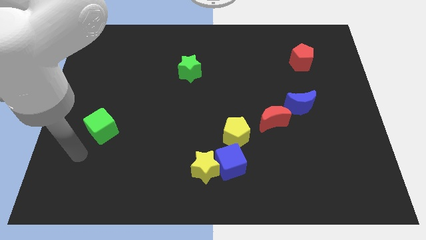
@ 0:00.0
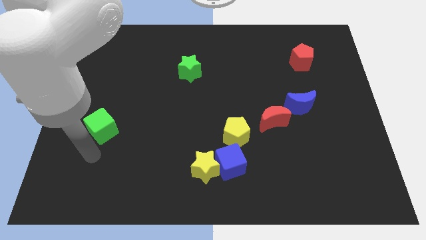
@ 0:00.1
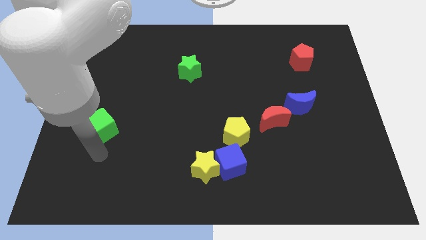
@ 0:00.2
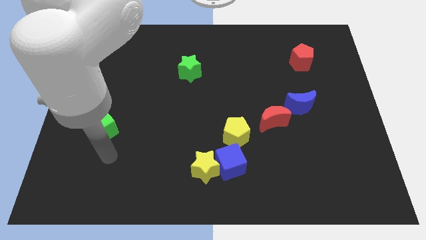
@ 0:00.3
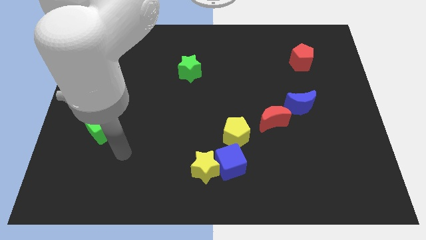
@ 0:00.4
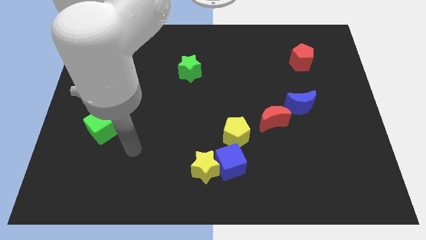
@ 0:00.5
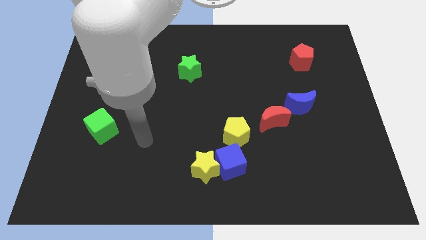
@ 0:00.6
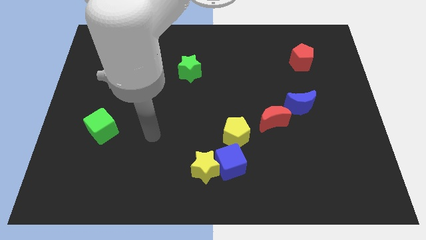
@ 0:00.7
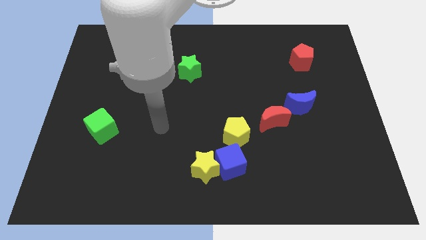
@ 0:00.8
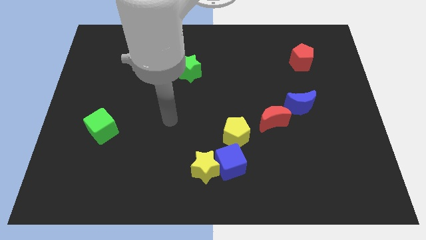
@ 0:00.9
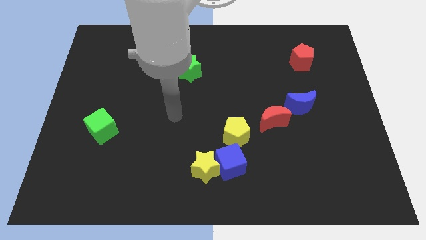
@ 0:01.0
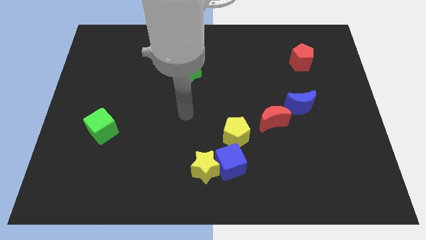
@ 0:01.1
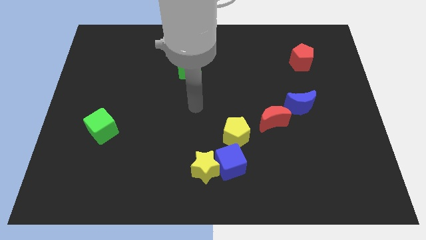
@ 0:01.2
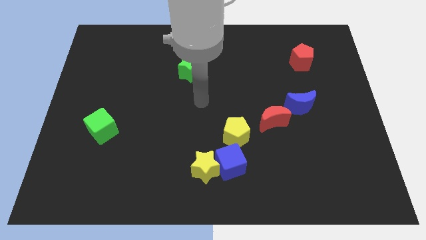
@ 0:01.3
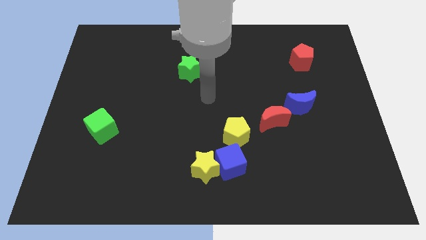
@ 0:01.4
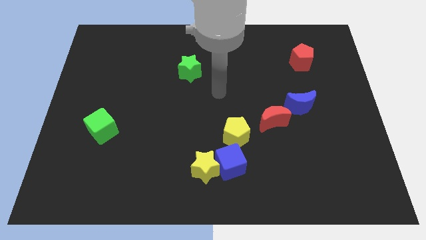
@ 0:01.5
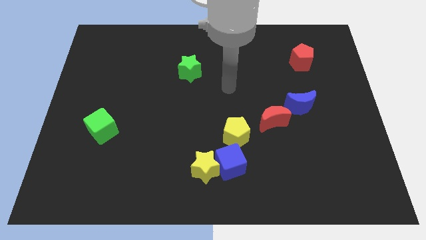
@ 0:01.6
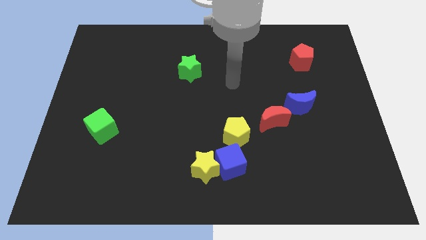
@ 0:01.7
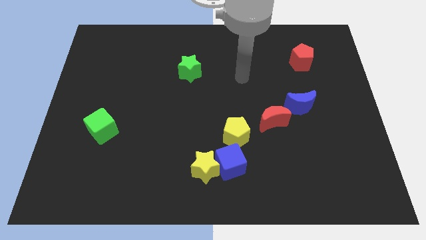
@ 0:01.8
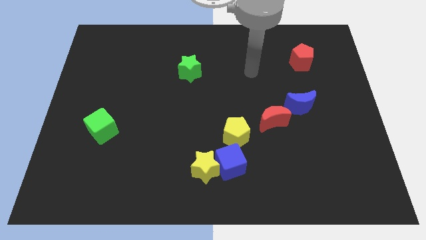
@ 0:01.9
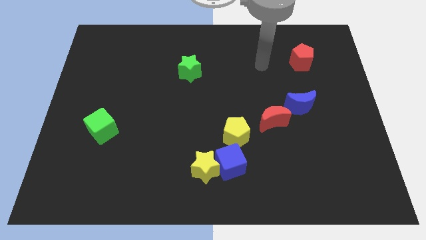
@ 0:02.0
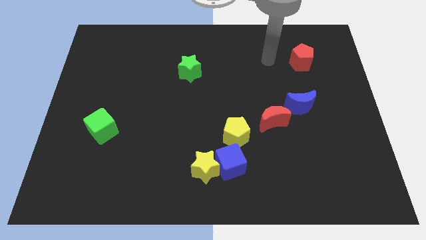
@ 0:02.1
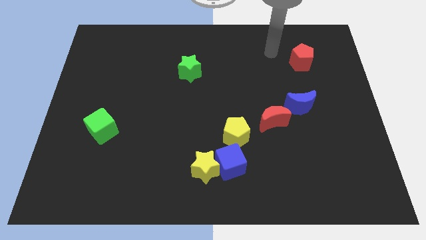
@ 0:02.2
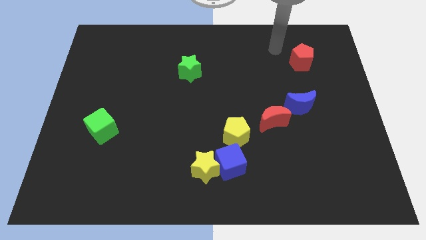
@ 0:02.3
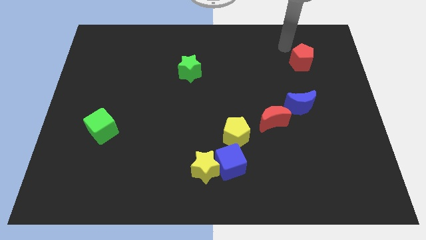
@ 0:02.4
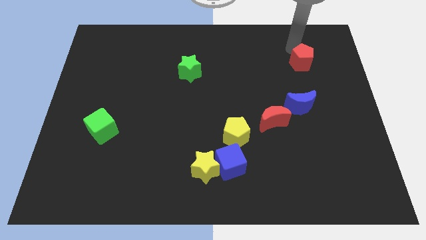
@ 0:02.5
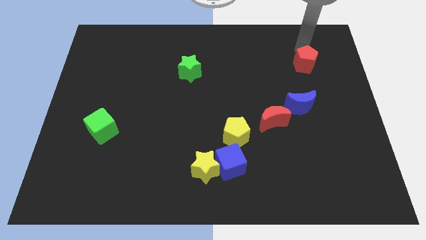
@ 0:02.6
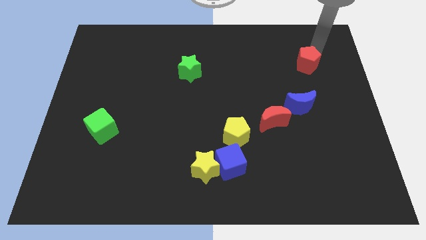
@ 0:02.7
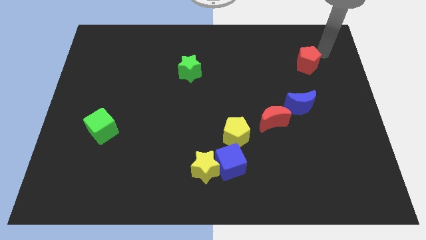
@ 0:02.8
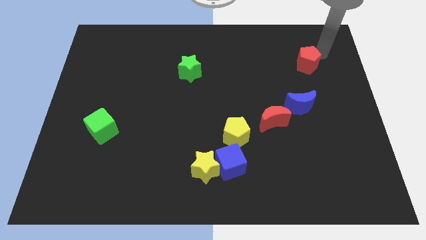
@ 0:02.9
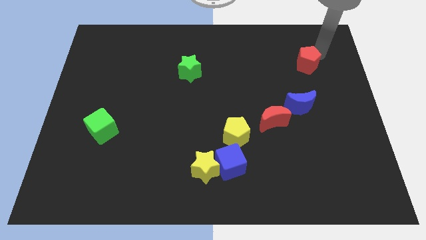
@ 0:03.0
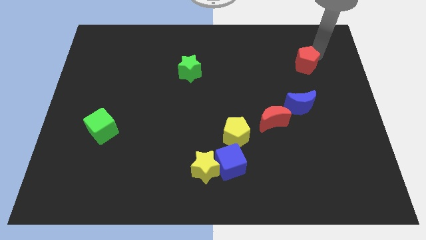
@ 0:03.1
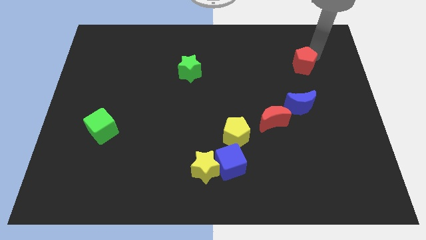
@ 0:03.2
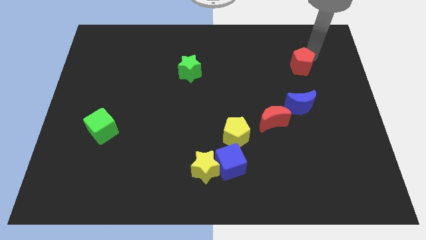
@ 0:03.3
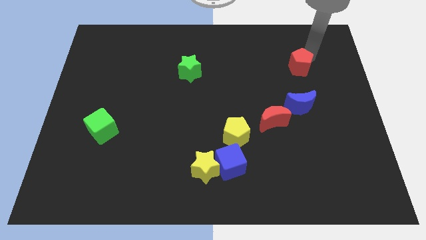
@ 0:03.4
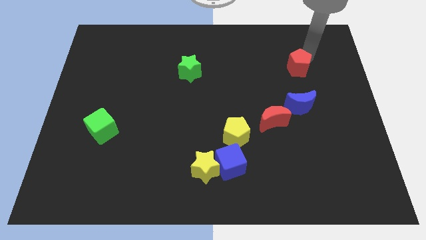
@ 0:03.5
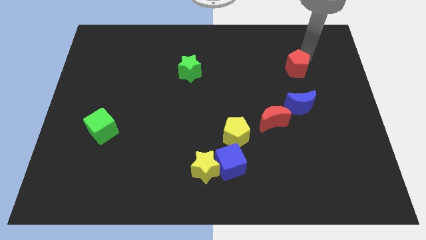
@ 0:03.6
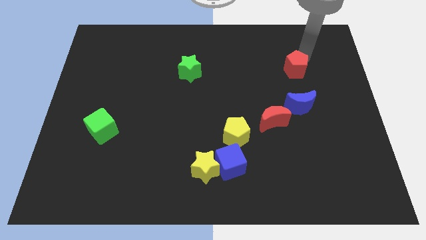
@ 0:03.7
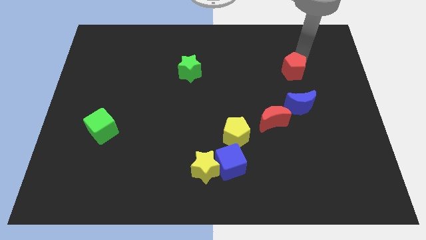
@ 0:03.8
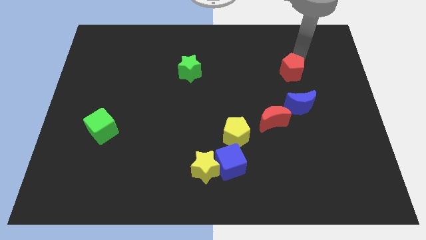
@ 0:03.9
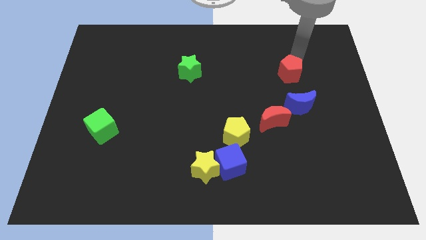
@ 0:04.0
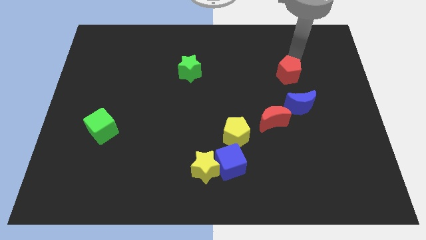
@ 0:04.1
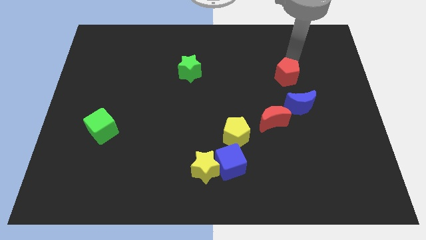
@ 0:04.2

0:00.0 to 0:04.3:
push the red pentagon down and then left a bit

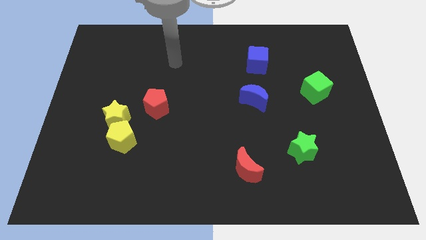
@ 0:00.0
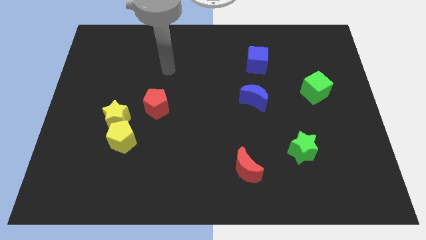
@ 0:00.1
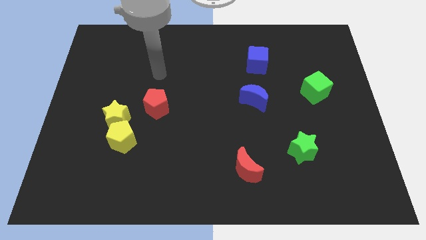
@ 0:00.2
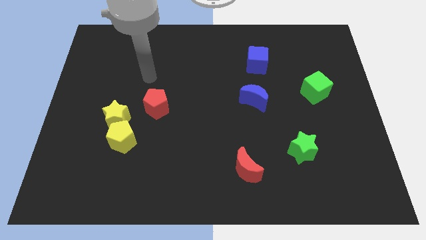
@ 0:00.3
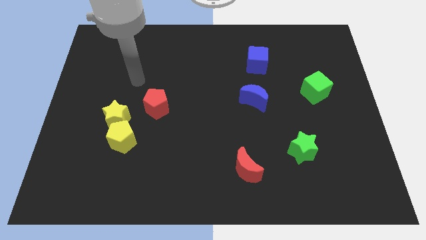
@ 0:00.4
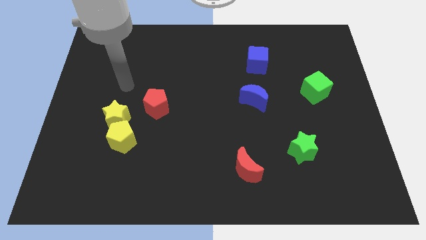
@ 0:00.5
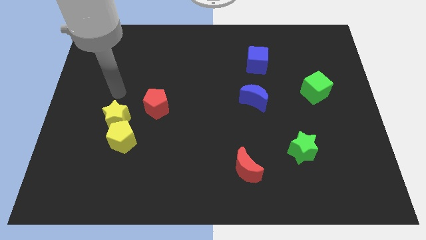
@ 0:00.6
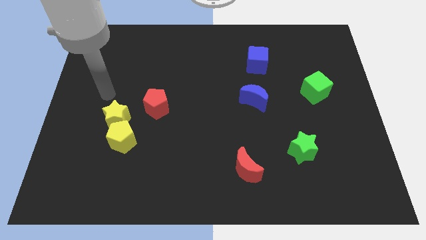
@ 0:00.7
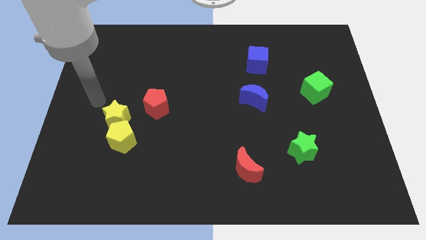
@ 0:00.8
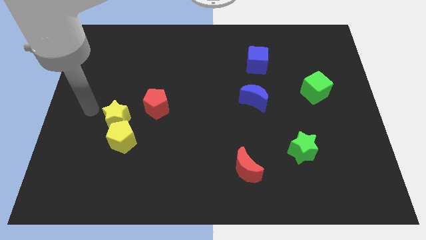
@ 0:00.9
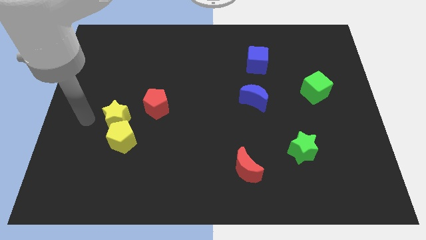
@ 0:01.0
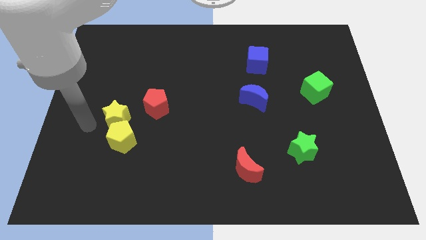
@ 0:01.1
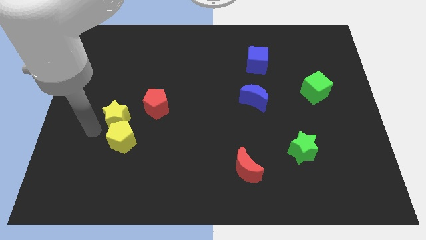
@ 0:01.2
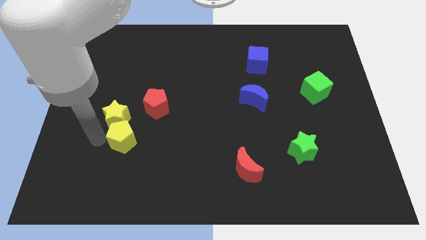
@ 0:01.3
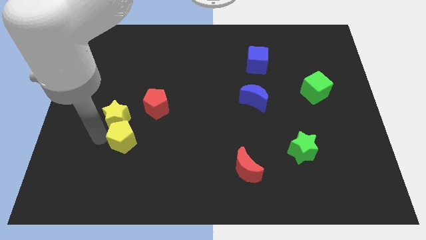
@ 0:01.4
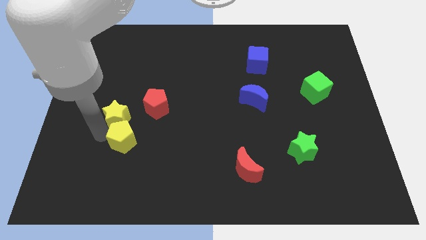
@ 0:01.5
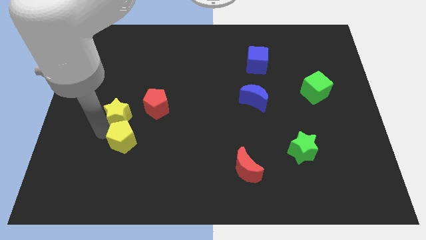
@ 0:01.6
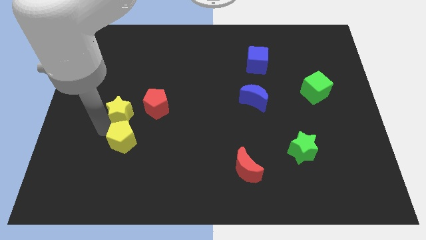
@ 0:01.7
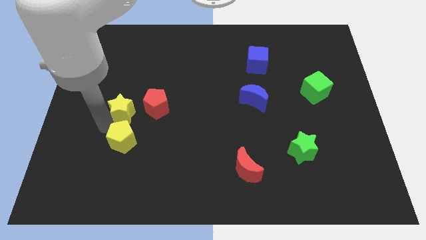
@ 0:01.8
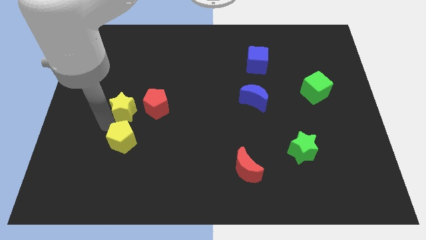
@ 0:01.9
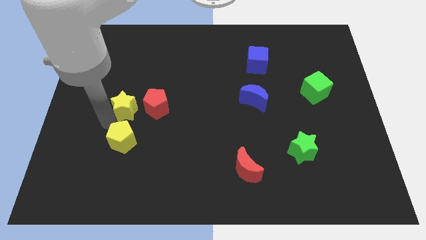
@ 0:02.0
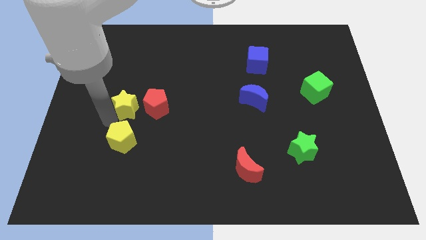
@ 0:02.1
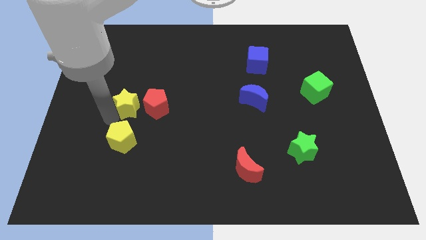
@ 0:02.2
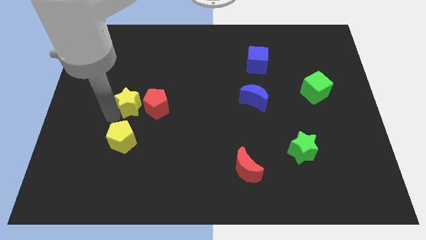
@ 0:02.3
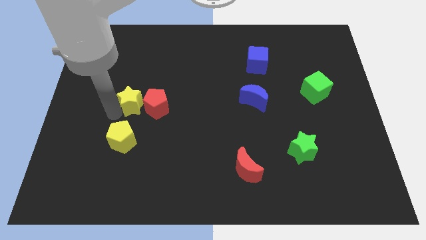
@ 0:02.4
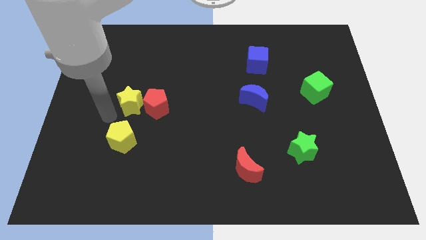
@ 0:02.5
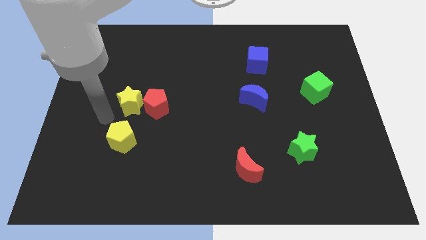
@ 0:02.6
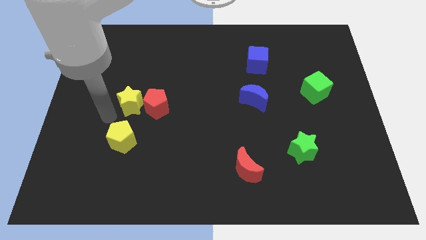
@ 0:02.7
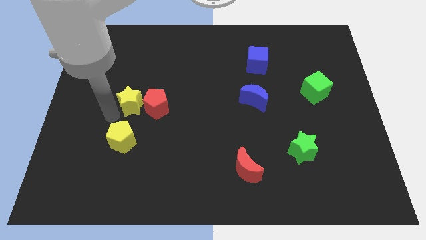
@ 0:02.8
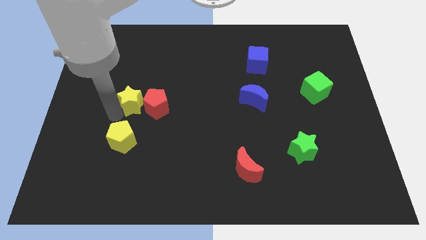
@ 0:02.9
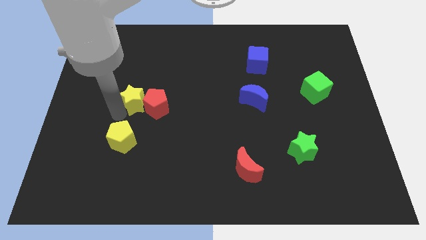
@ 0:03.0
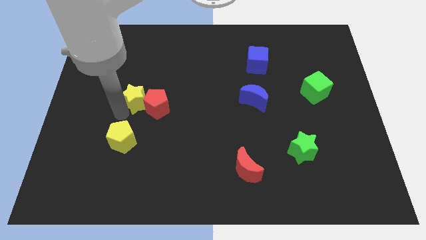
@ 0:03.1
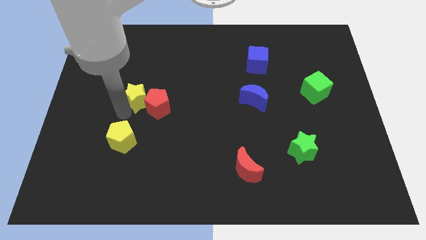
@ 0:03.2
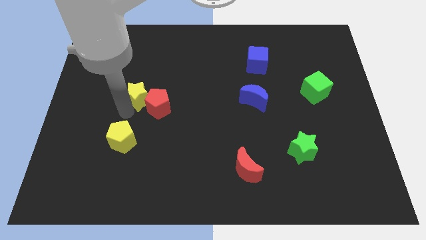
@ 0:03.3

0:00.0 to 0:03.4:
slightly push the yellow star up and right diagonally

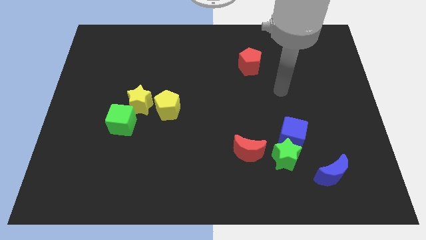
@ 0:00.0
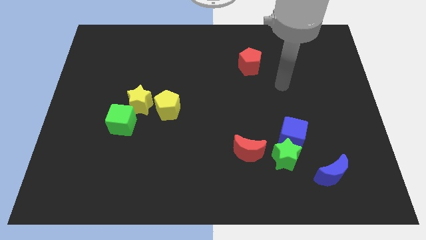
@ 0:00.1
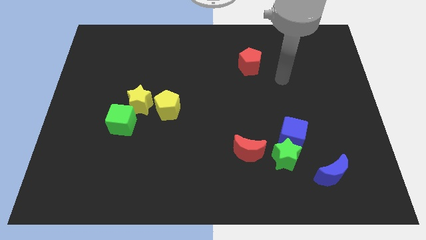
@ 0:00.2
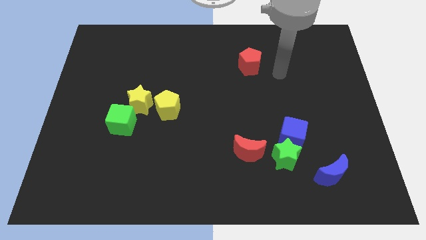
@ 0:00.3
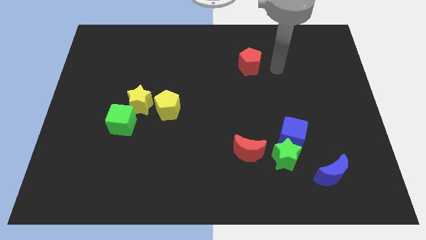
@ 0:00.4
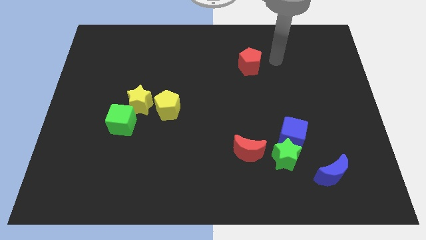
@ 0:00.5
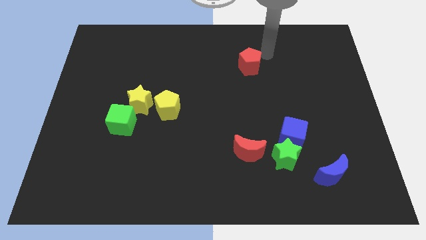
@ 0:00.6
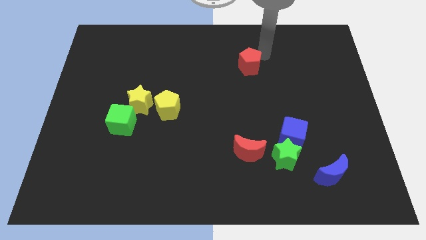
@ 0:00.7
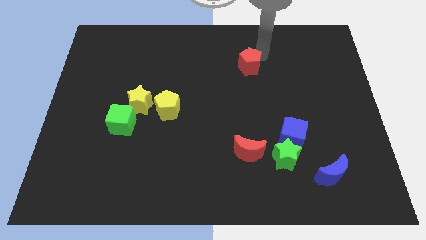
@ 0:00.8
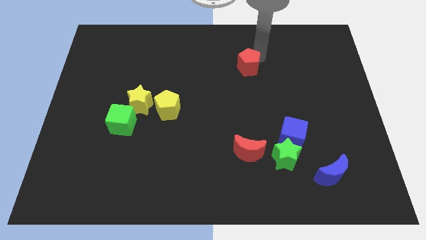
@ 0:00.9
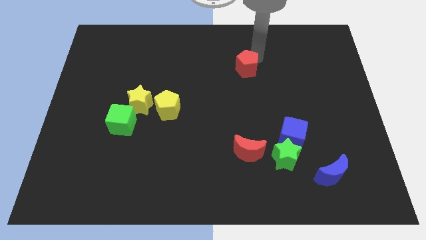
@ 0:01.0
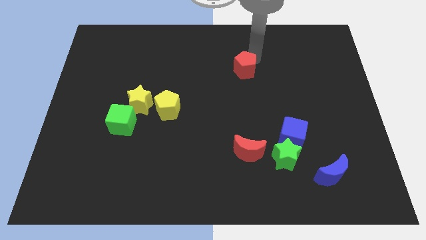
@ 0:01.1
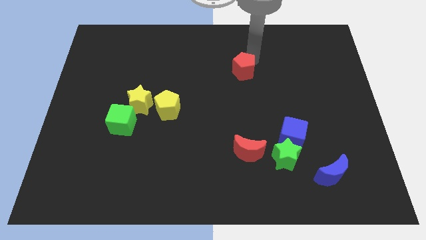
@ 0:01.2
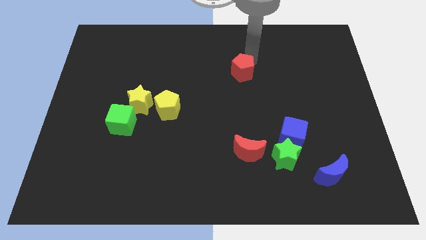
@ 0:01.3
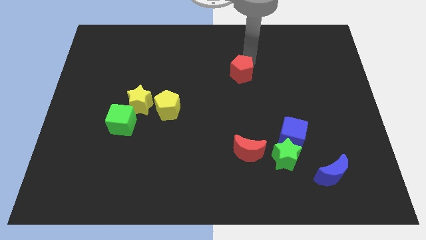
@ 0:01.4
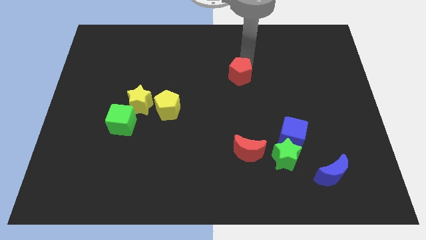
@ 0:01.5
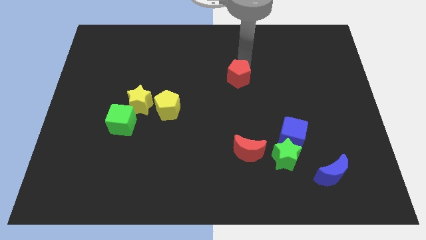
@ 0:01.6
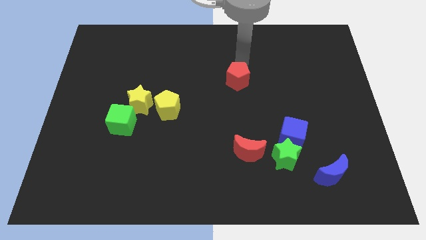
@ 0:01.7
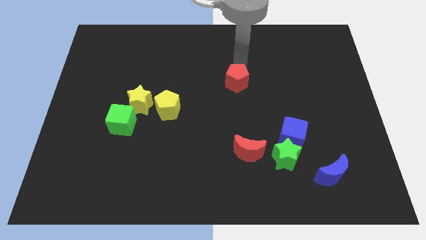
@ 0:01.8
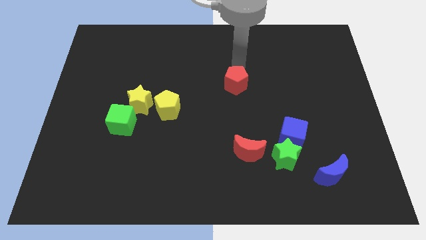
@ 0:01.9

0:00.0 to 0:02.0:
slide the red pentagon diagonally downwards and to the left somewhat
